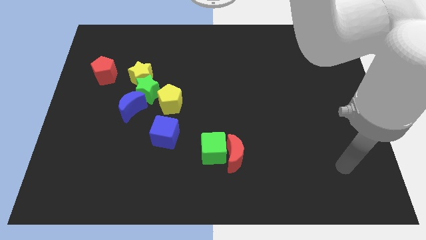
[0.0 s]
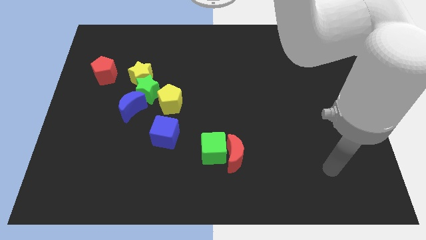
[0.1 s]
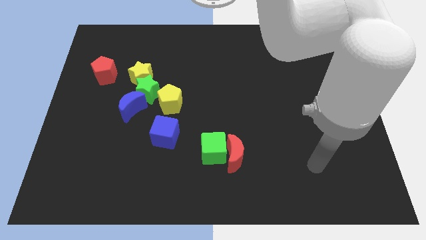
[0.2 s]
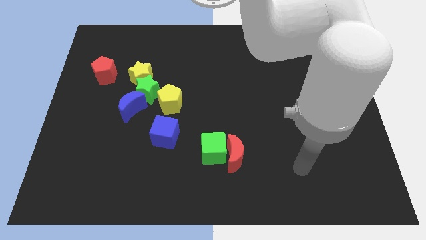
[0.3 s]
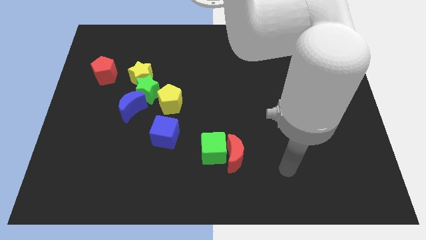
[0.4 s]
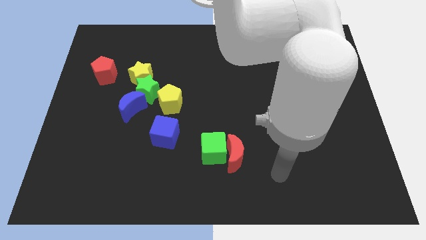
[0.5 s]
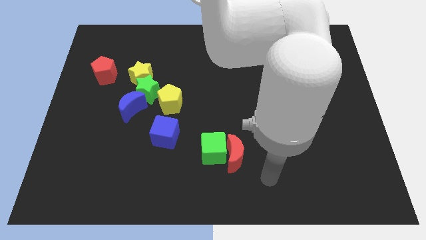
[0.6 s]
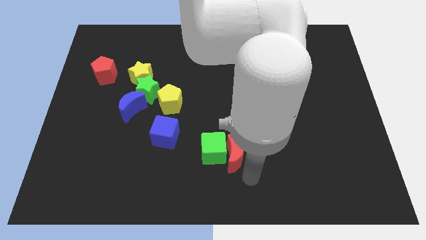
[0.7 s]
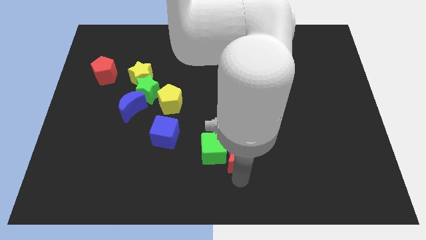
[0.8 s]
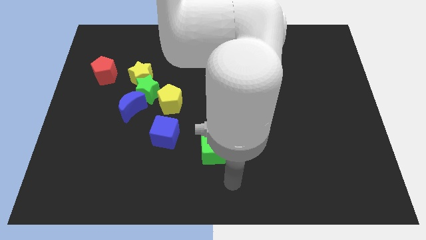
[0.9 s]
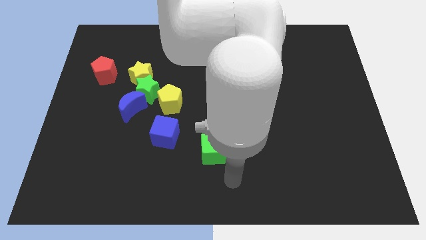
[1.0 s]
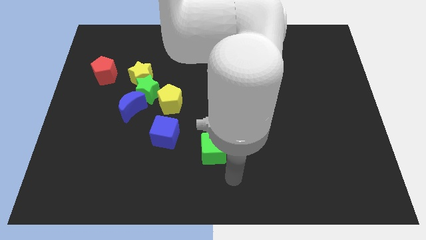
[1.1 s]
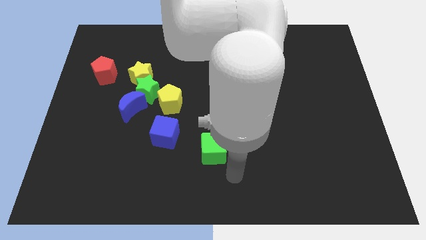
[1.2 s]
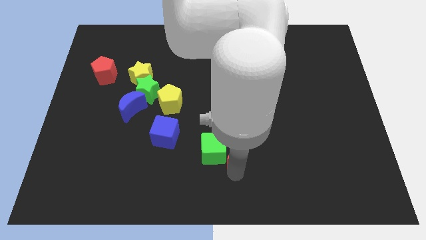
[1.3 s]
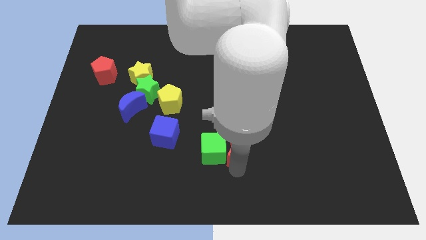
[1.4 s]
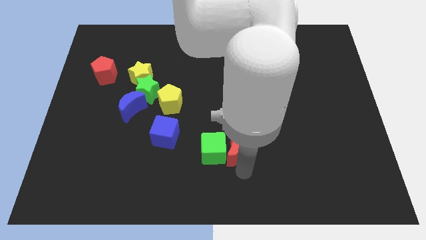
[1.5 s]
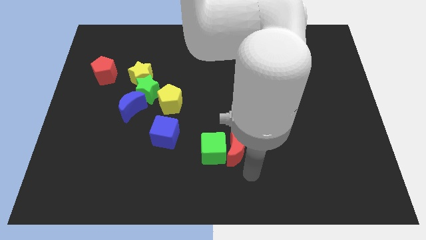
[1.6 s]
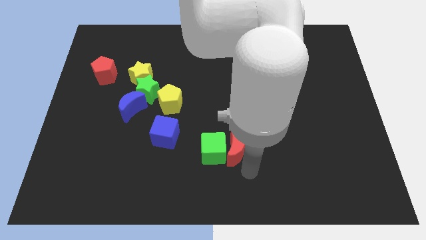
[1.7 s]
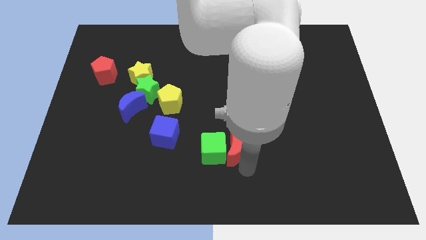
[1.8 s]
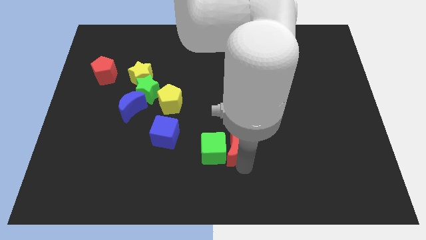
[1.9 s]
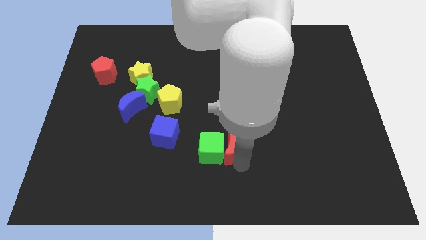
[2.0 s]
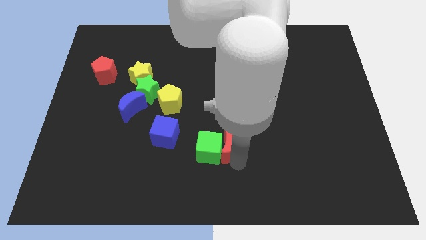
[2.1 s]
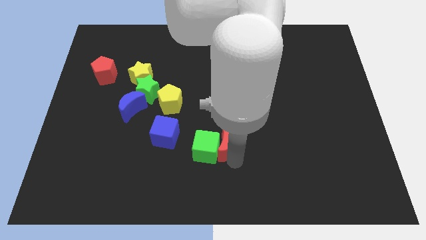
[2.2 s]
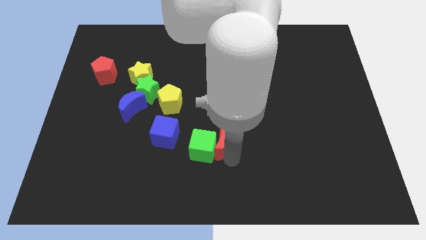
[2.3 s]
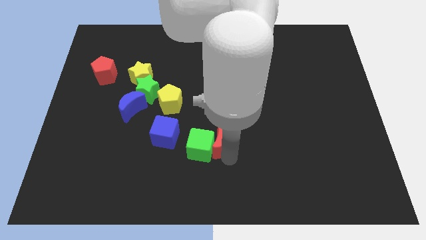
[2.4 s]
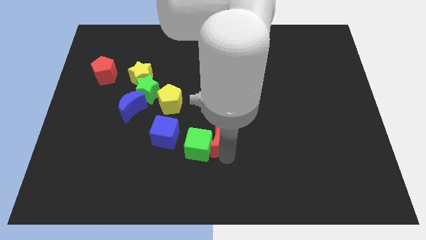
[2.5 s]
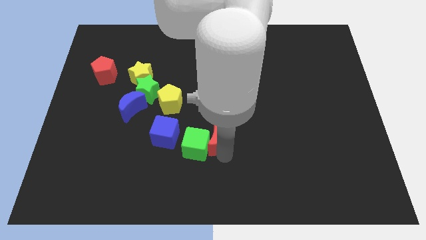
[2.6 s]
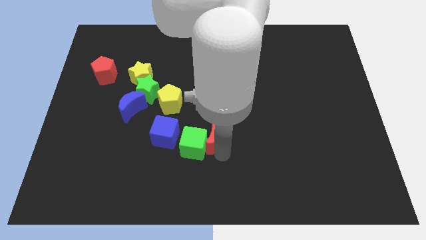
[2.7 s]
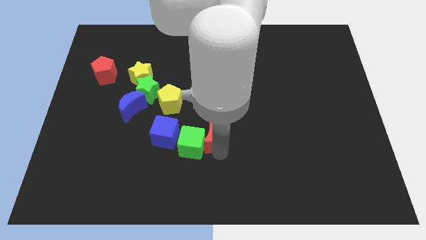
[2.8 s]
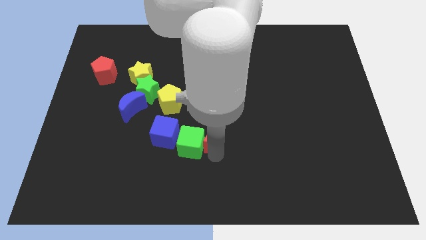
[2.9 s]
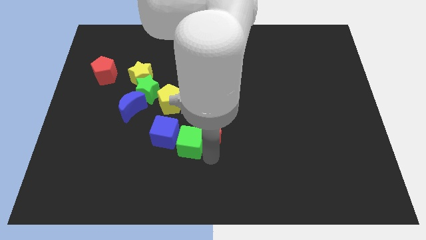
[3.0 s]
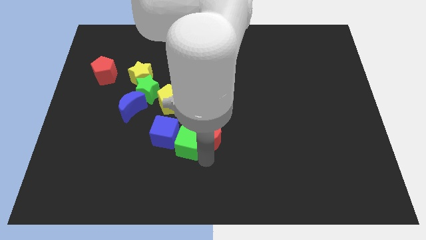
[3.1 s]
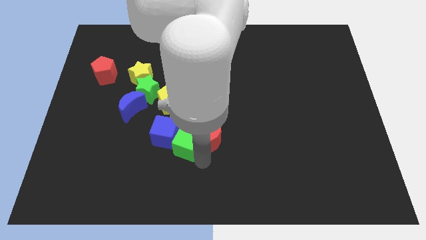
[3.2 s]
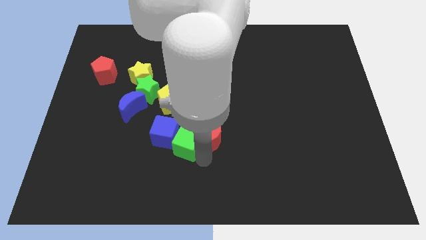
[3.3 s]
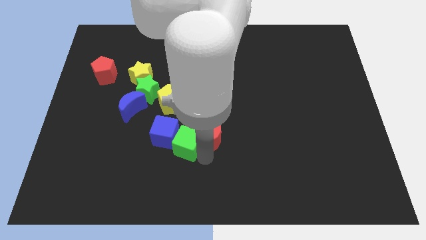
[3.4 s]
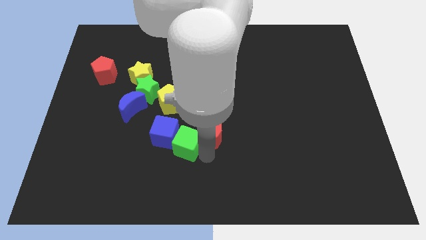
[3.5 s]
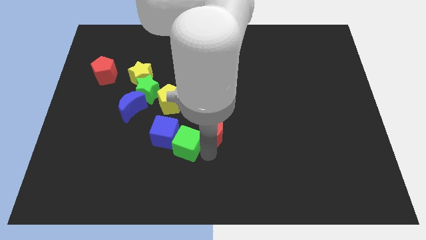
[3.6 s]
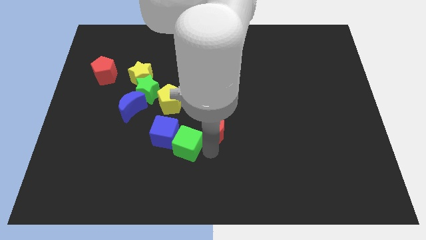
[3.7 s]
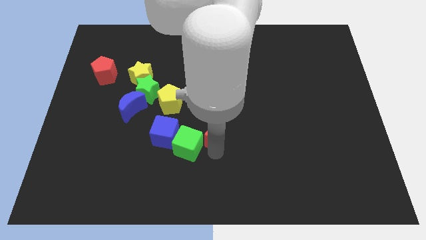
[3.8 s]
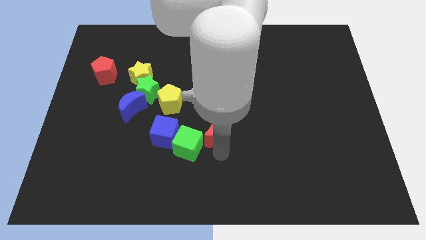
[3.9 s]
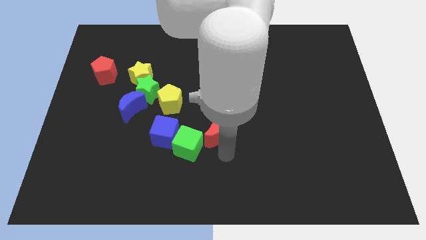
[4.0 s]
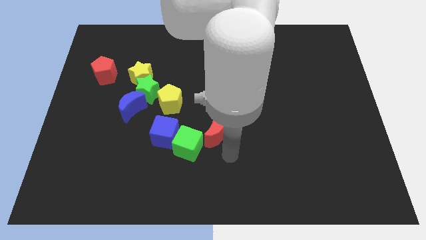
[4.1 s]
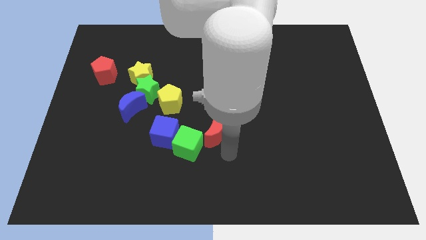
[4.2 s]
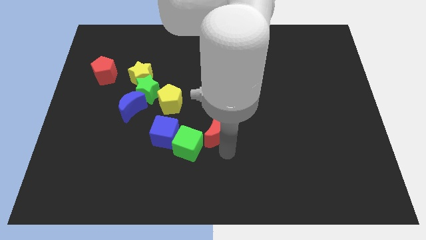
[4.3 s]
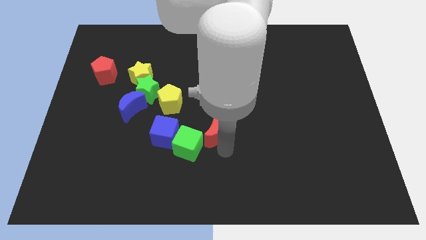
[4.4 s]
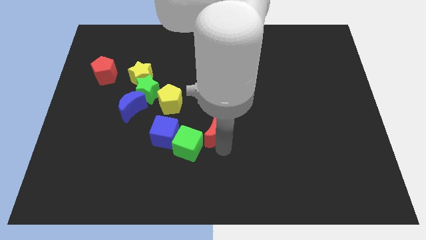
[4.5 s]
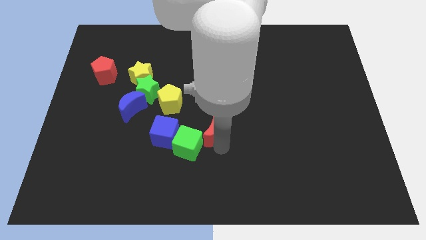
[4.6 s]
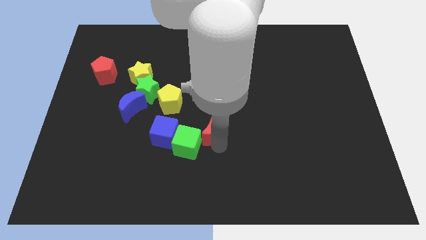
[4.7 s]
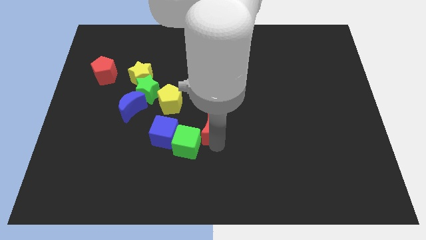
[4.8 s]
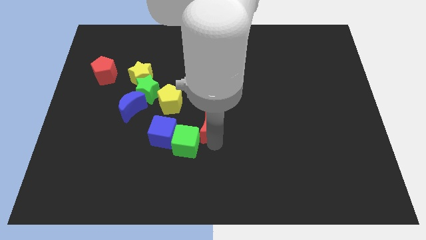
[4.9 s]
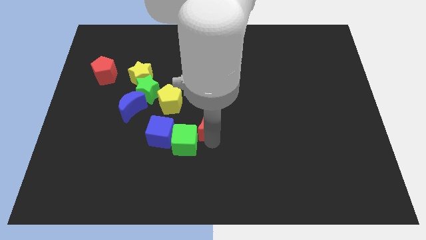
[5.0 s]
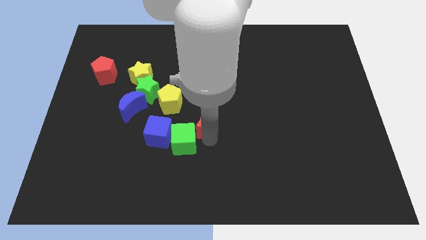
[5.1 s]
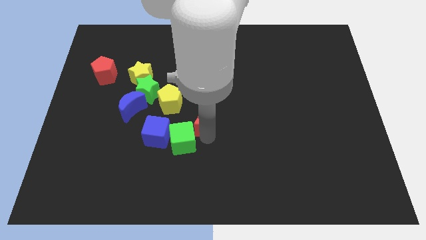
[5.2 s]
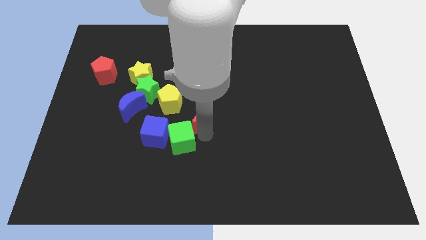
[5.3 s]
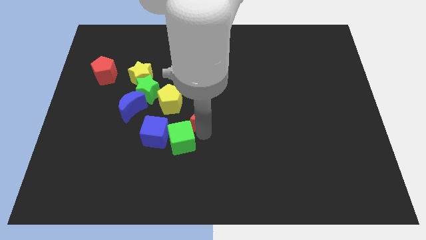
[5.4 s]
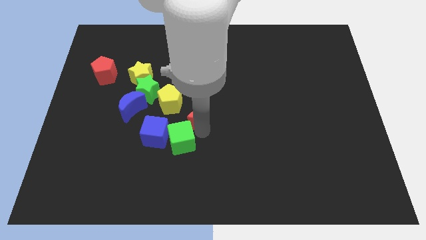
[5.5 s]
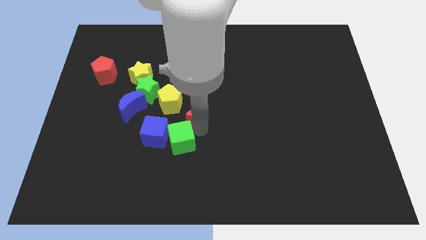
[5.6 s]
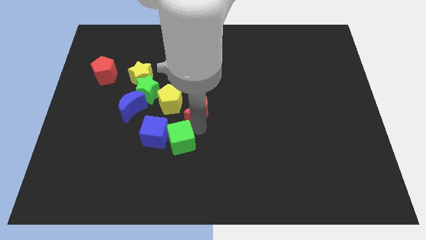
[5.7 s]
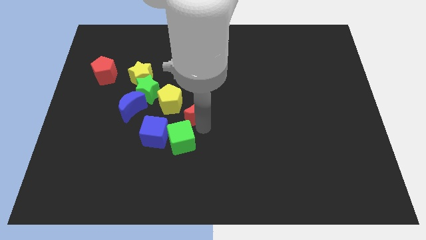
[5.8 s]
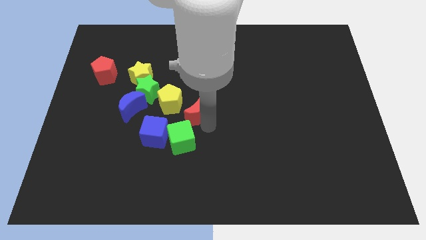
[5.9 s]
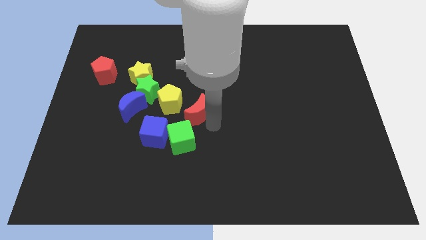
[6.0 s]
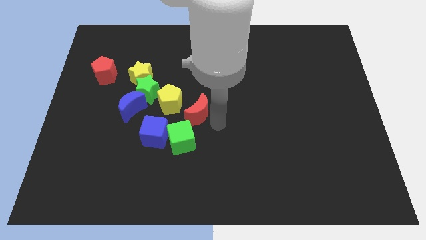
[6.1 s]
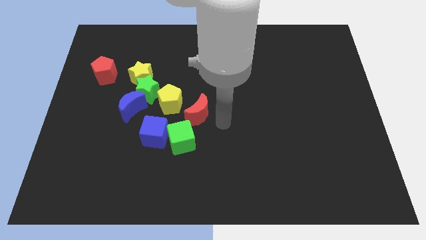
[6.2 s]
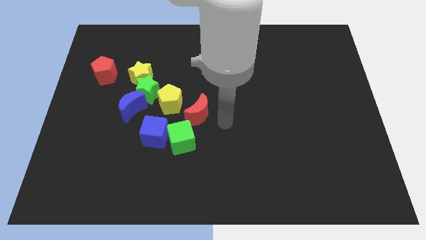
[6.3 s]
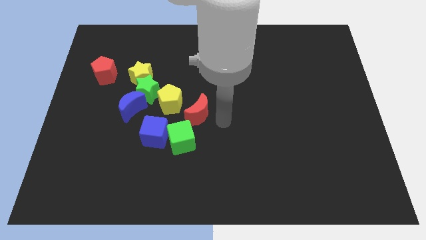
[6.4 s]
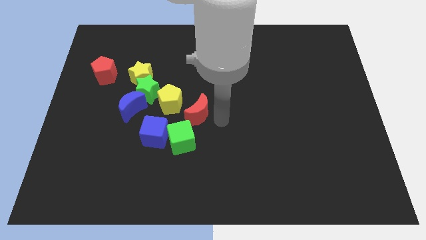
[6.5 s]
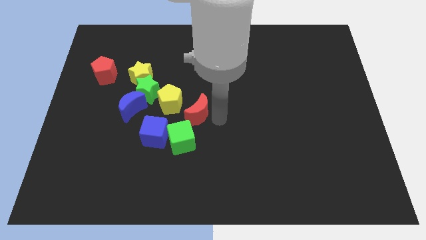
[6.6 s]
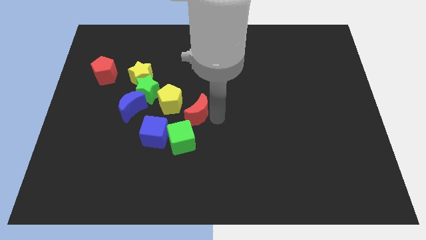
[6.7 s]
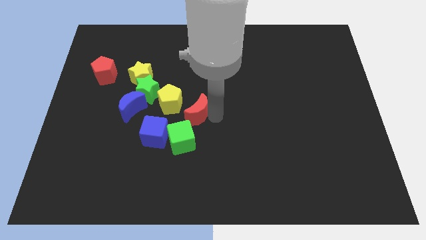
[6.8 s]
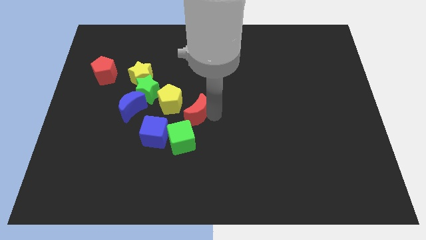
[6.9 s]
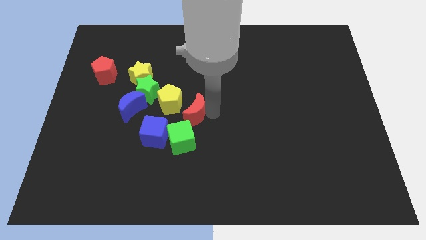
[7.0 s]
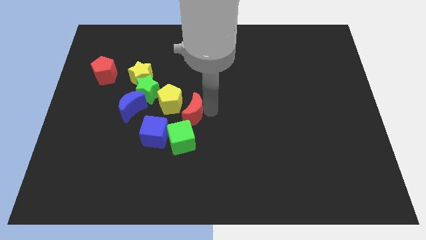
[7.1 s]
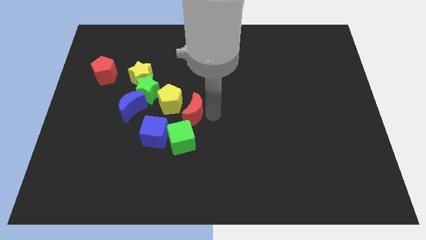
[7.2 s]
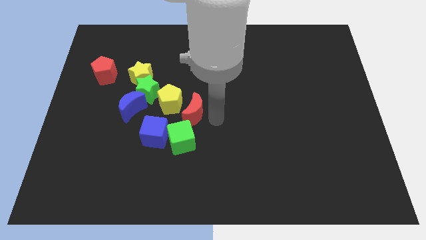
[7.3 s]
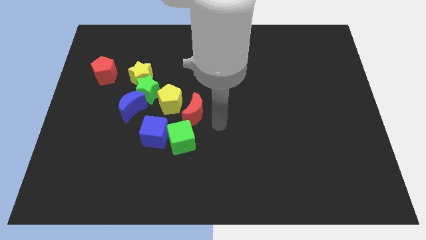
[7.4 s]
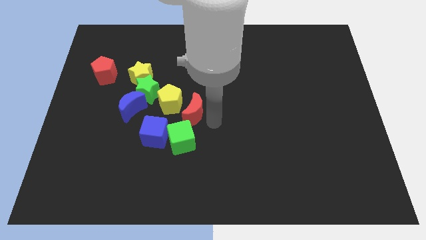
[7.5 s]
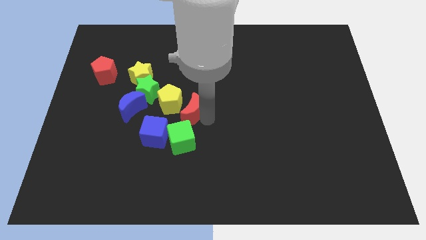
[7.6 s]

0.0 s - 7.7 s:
move the red moon to the yellow pentagon

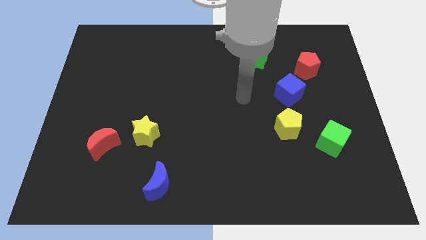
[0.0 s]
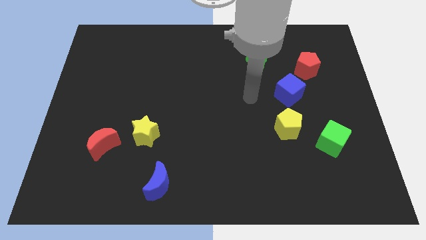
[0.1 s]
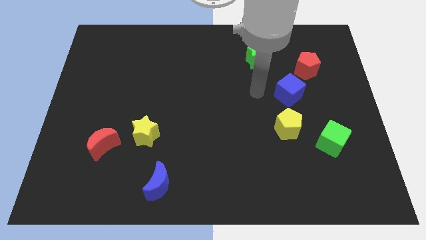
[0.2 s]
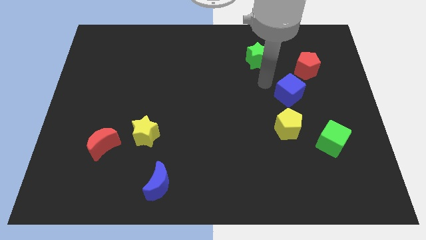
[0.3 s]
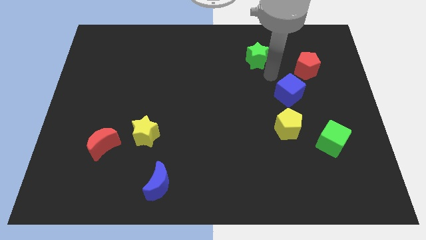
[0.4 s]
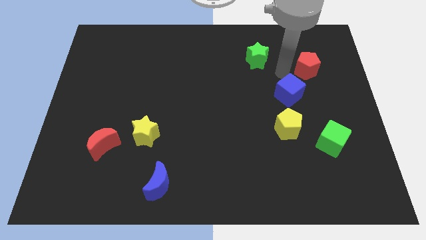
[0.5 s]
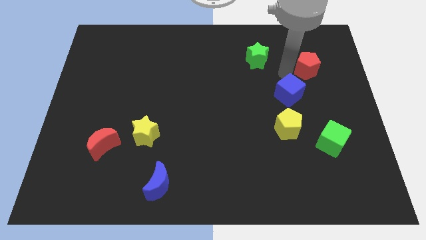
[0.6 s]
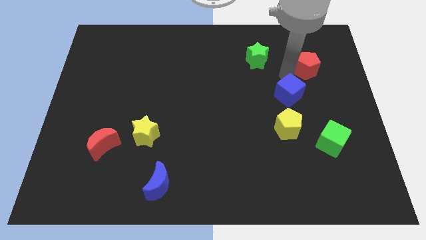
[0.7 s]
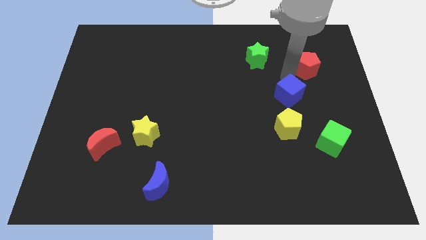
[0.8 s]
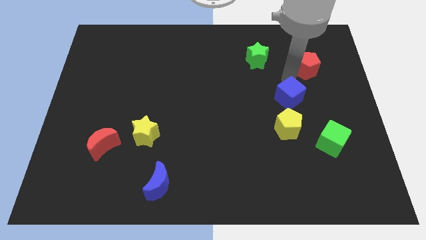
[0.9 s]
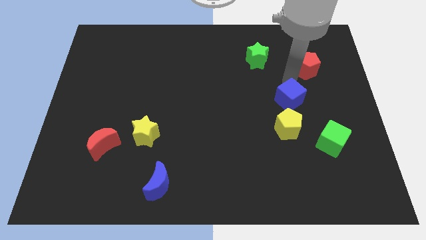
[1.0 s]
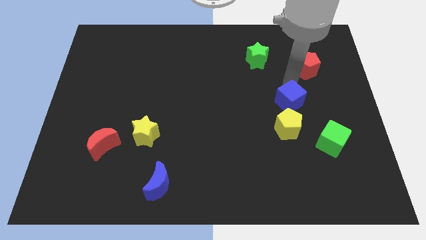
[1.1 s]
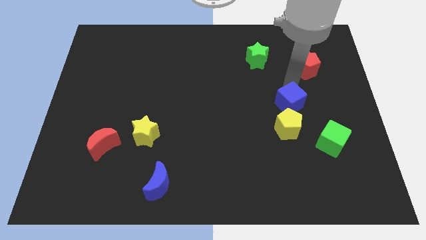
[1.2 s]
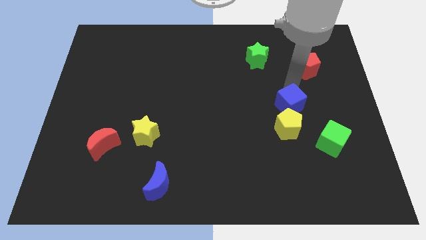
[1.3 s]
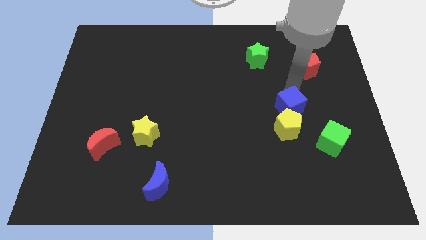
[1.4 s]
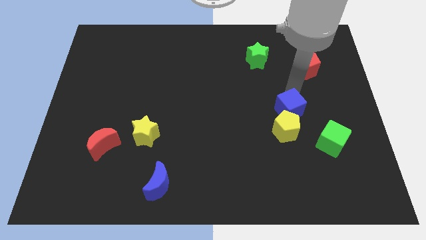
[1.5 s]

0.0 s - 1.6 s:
slide the blue cube close to the yellow pentagon
